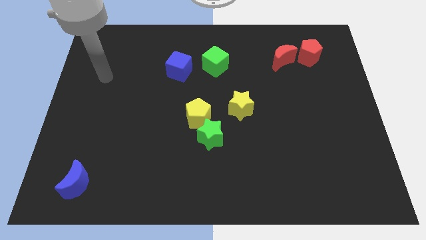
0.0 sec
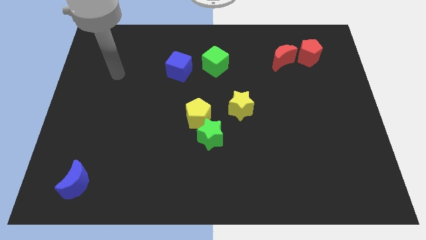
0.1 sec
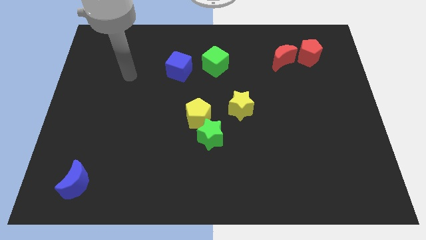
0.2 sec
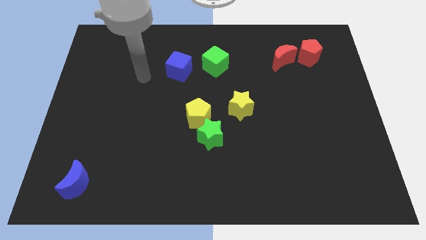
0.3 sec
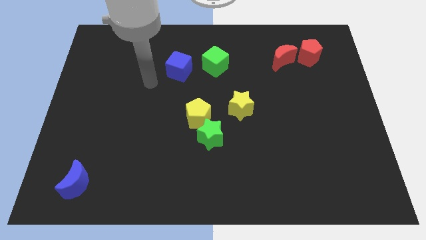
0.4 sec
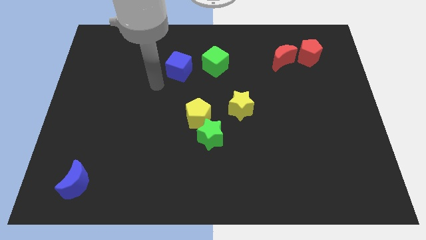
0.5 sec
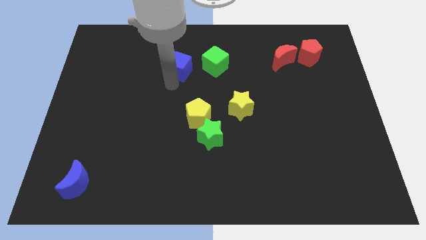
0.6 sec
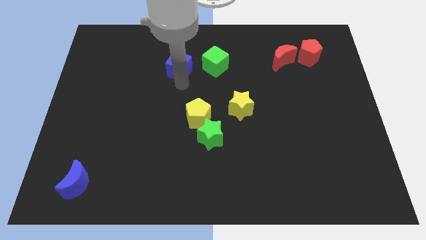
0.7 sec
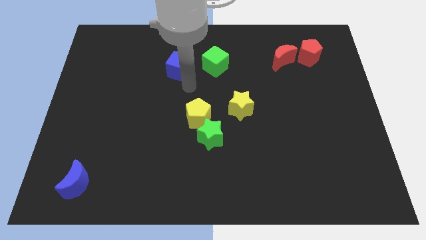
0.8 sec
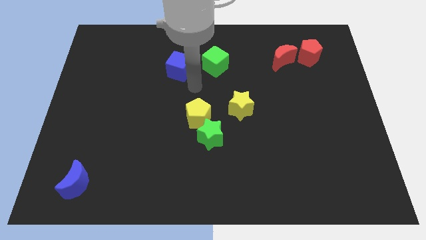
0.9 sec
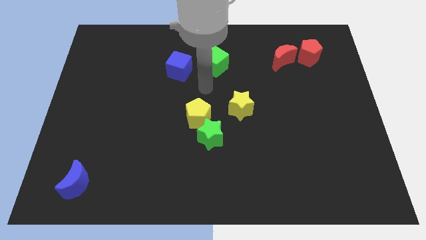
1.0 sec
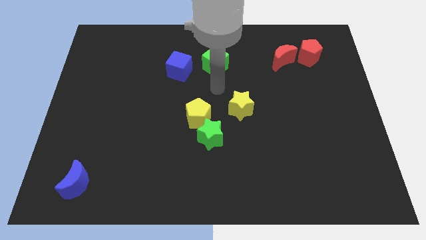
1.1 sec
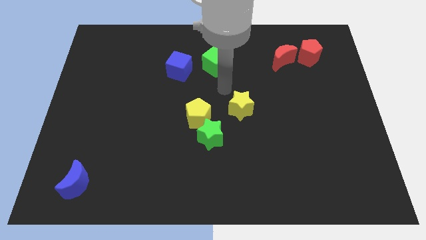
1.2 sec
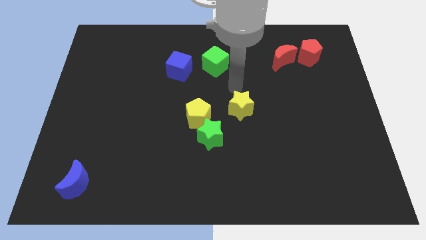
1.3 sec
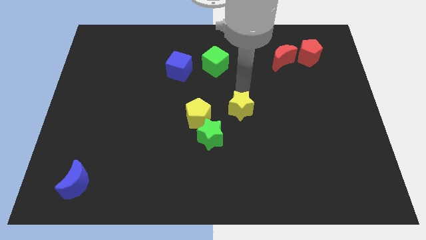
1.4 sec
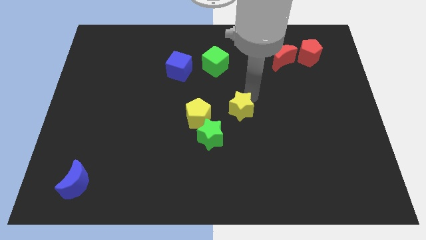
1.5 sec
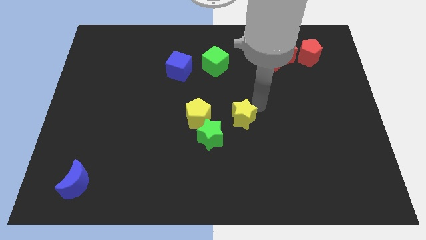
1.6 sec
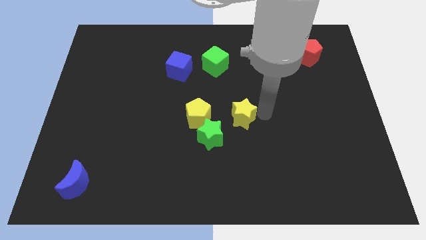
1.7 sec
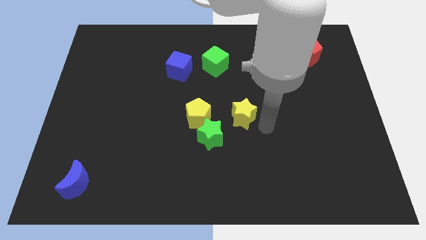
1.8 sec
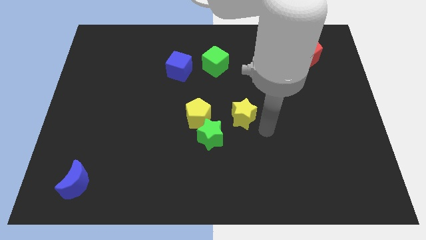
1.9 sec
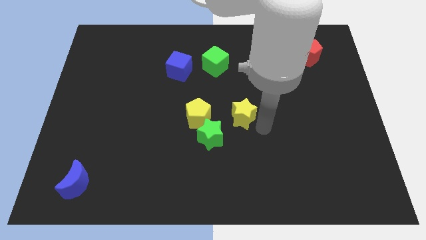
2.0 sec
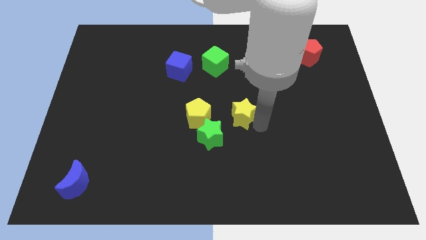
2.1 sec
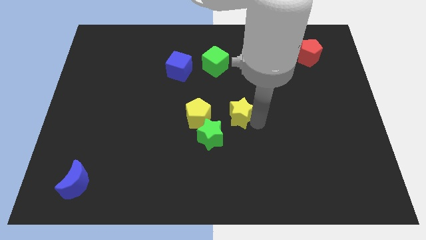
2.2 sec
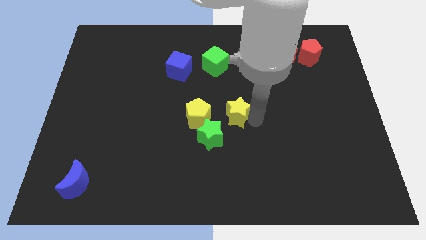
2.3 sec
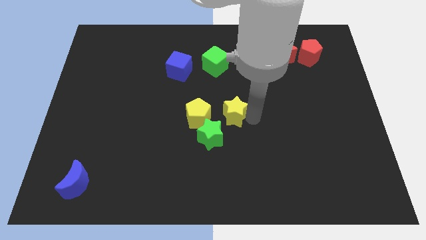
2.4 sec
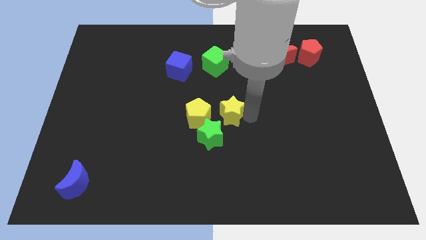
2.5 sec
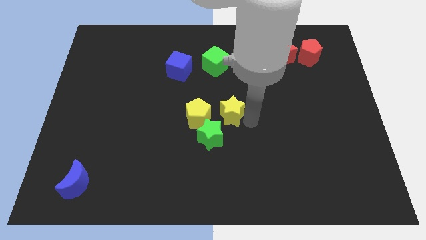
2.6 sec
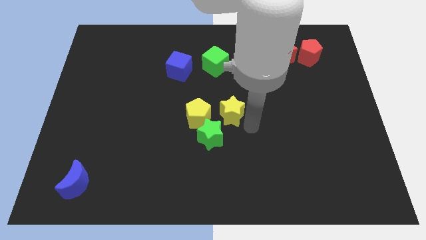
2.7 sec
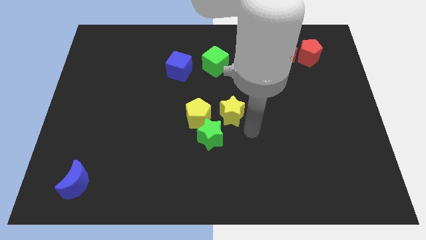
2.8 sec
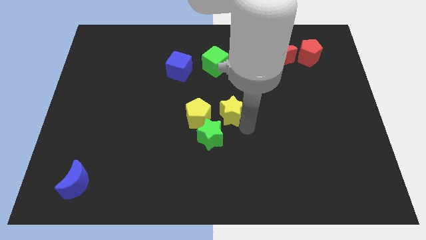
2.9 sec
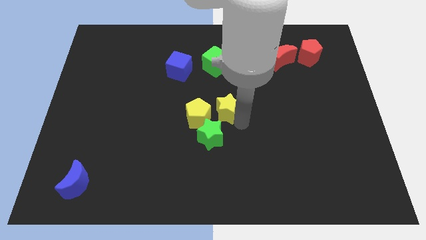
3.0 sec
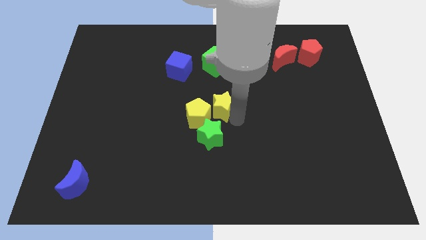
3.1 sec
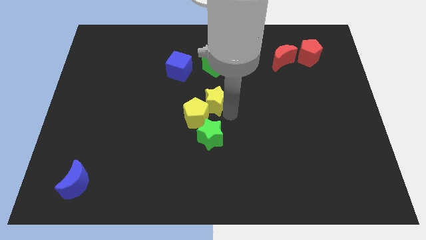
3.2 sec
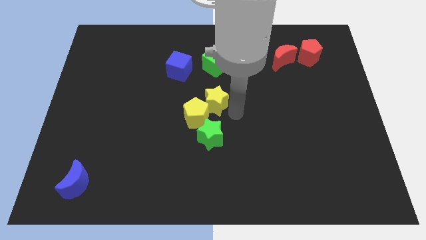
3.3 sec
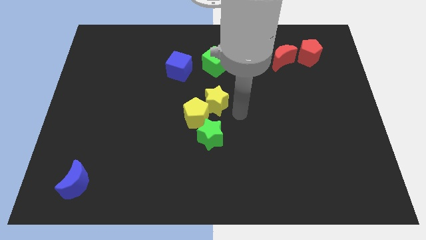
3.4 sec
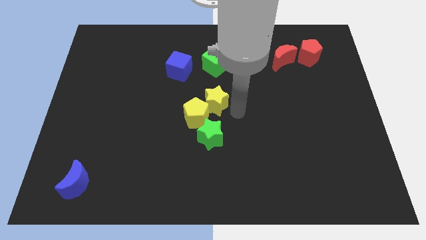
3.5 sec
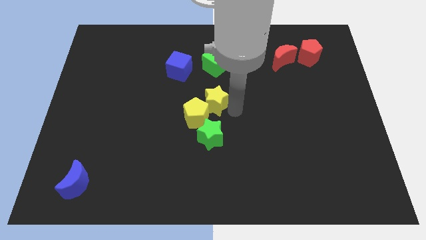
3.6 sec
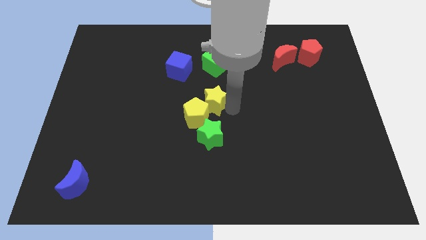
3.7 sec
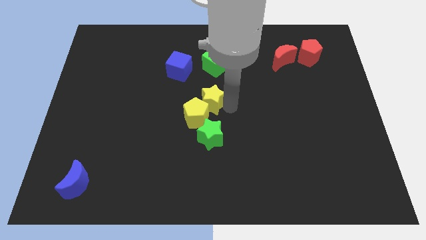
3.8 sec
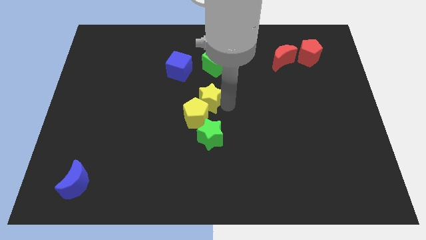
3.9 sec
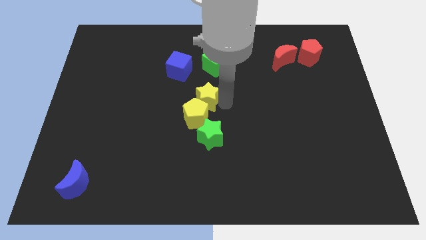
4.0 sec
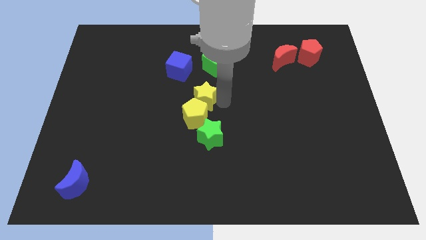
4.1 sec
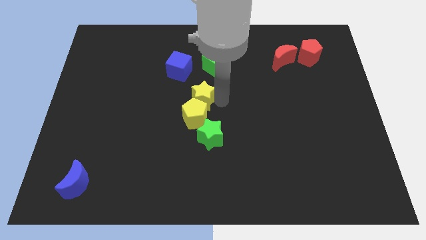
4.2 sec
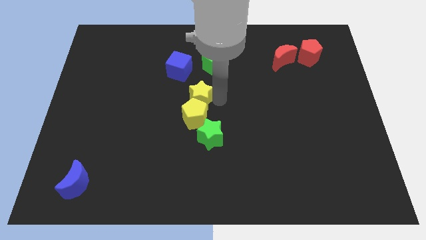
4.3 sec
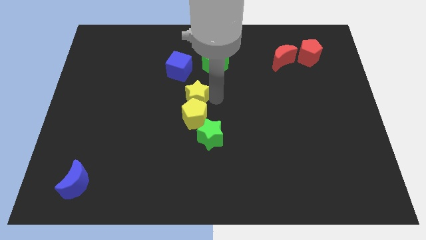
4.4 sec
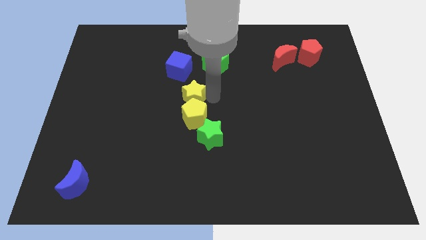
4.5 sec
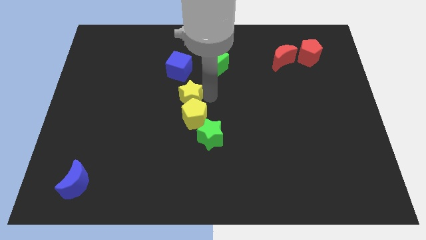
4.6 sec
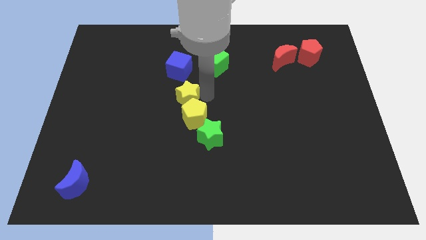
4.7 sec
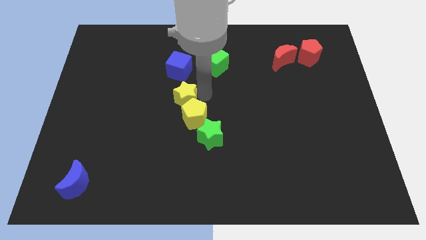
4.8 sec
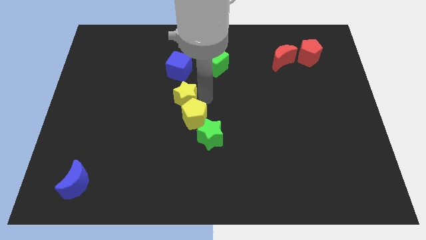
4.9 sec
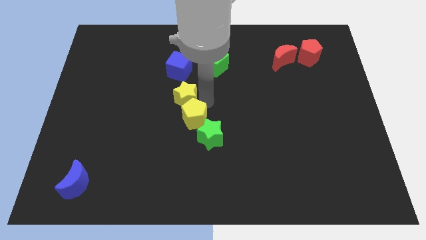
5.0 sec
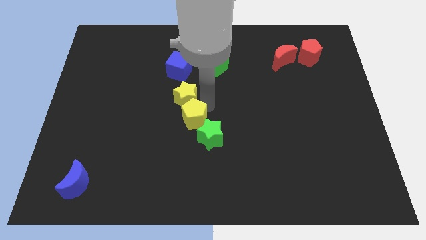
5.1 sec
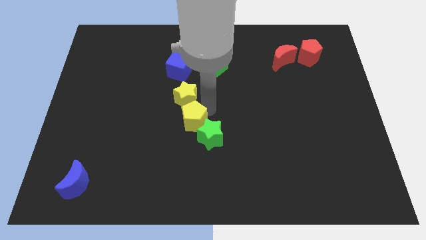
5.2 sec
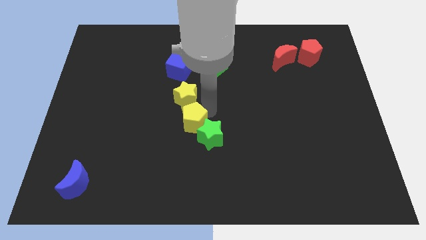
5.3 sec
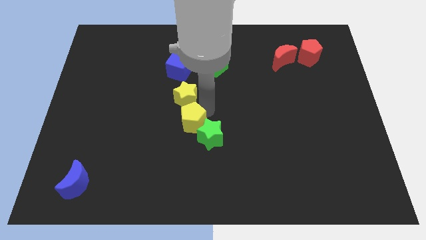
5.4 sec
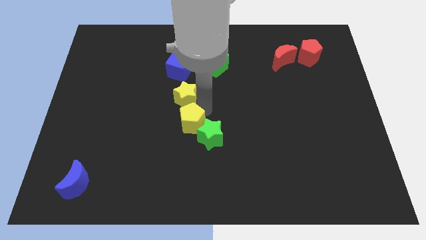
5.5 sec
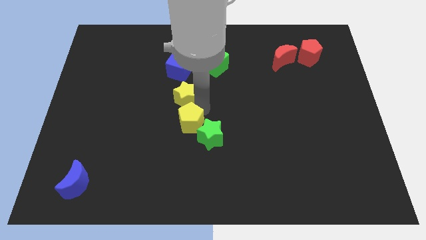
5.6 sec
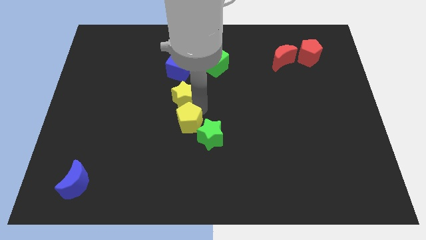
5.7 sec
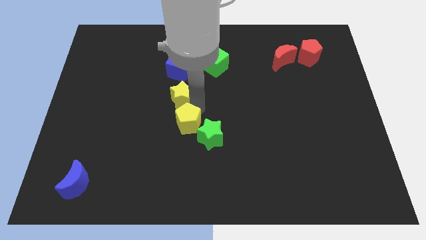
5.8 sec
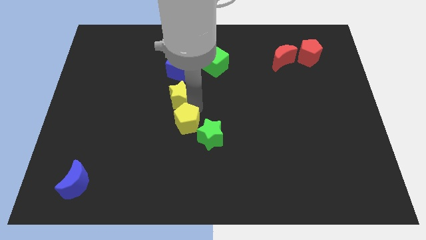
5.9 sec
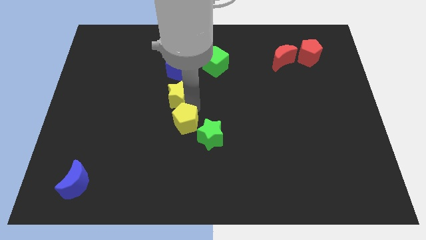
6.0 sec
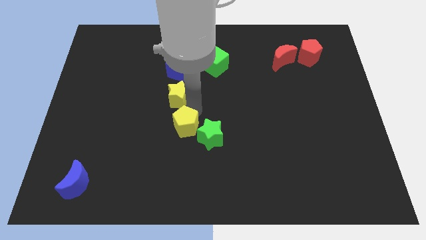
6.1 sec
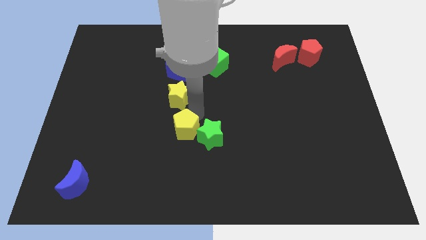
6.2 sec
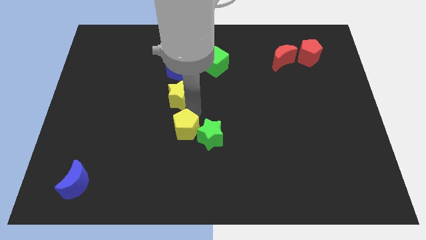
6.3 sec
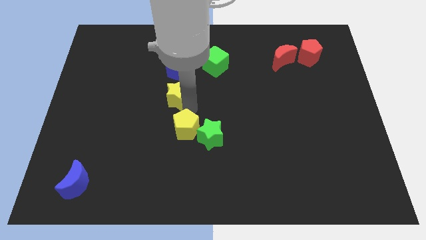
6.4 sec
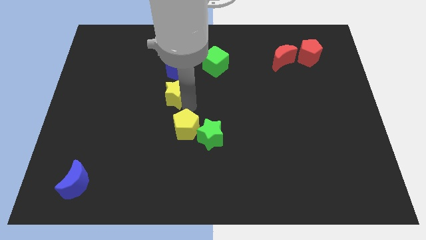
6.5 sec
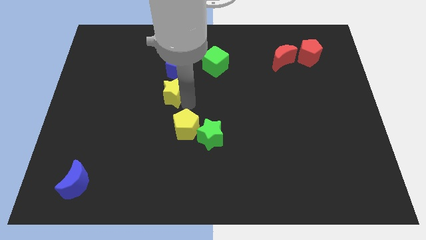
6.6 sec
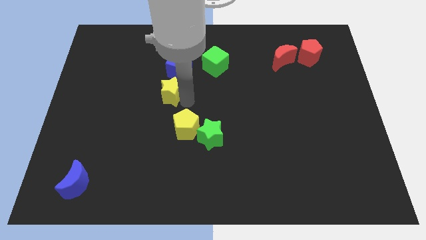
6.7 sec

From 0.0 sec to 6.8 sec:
slide the yellow star to the bottom left of the blue cube
